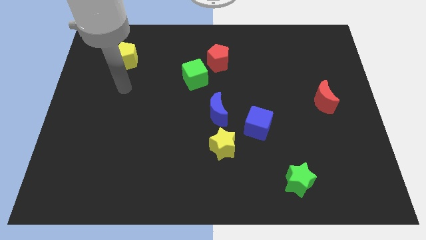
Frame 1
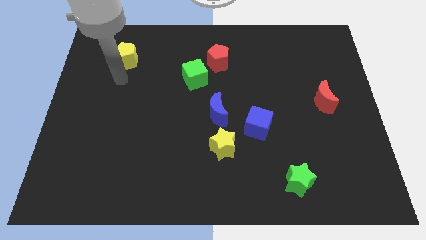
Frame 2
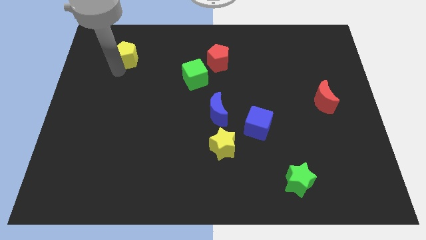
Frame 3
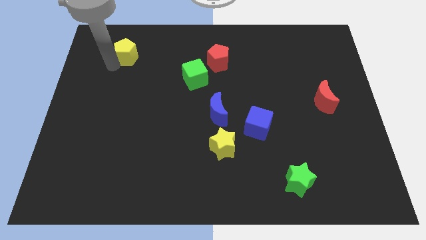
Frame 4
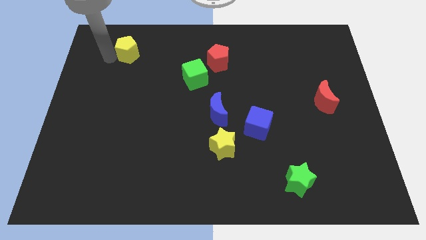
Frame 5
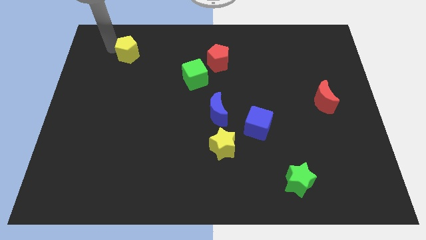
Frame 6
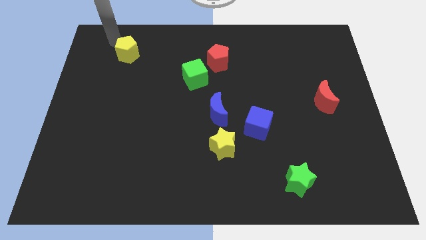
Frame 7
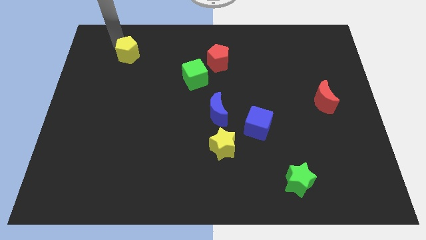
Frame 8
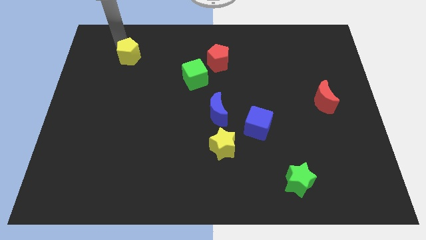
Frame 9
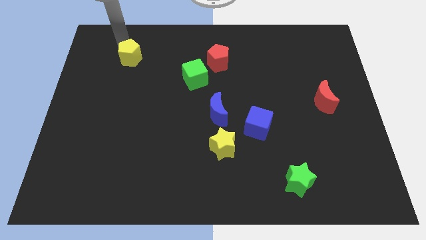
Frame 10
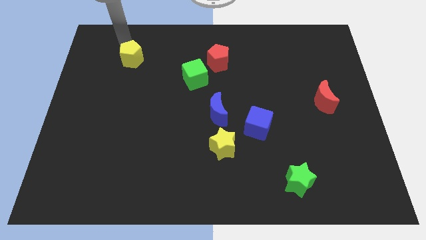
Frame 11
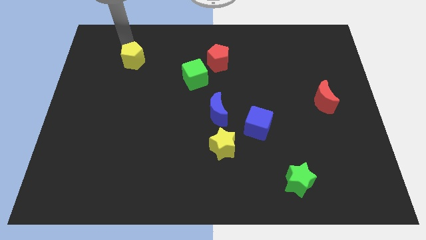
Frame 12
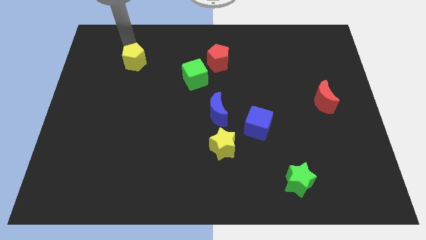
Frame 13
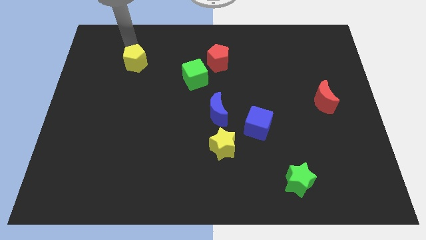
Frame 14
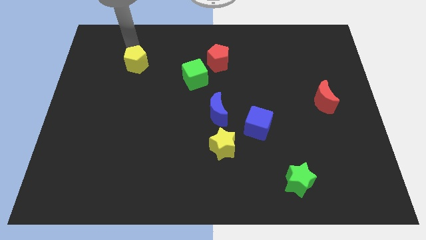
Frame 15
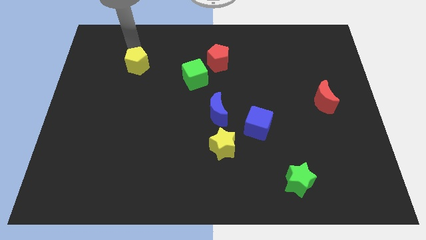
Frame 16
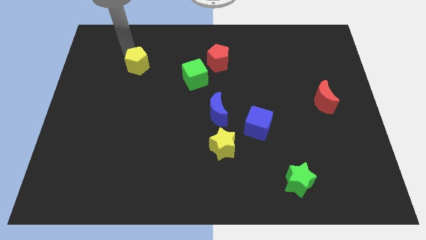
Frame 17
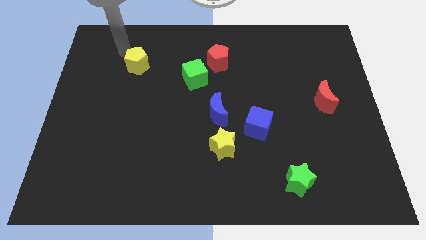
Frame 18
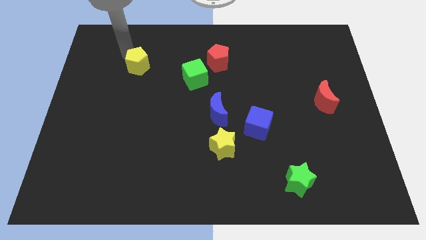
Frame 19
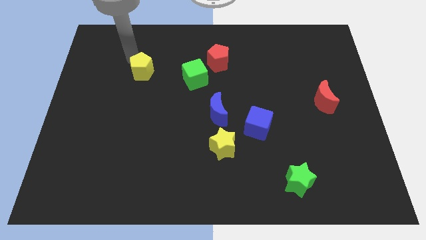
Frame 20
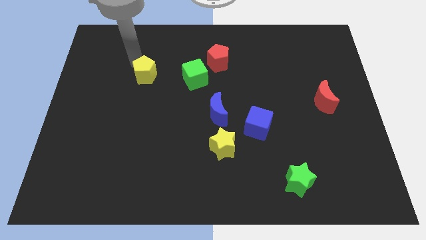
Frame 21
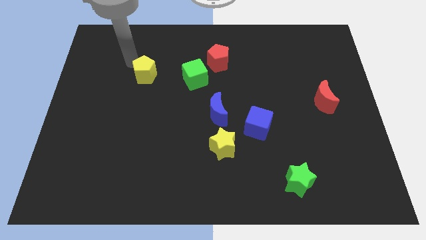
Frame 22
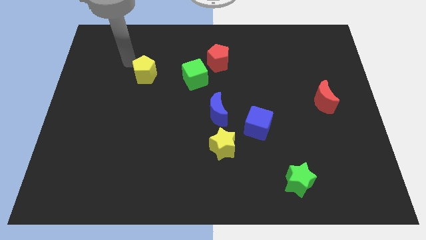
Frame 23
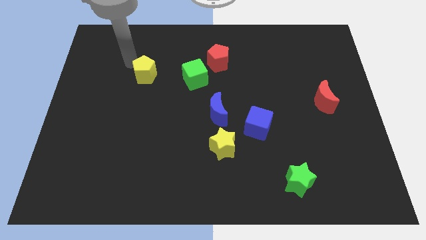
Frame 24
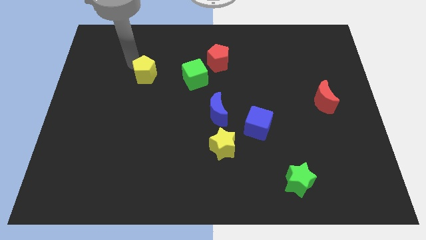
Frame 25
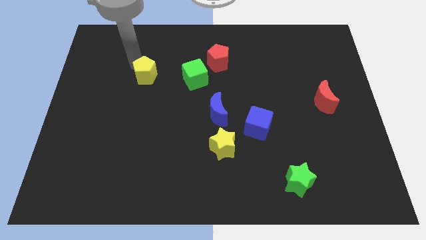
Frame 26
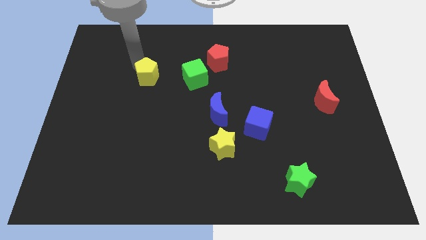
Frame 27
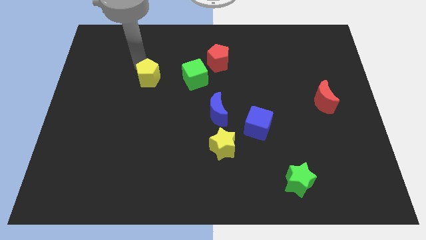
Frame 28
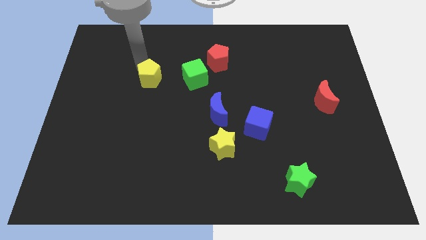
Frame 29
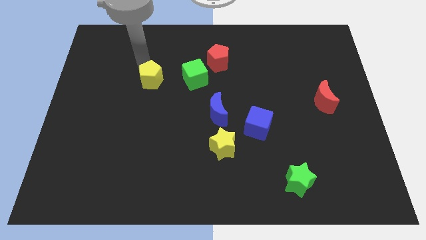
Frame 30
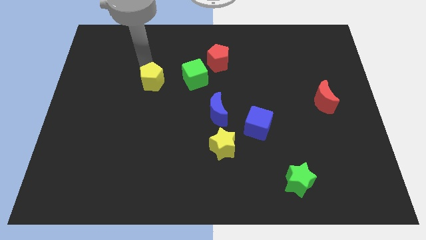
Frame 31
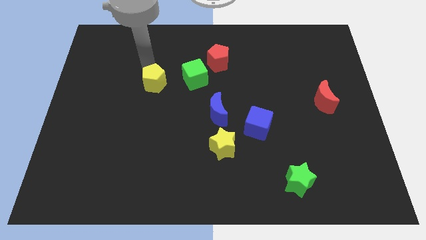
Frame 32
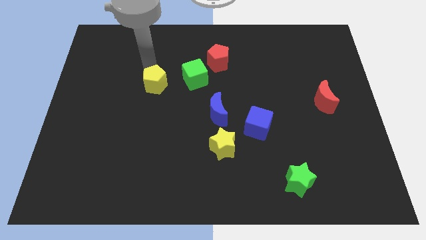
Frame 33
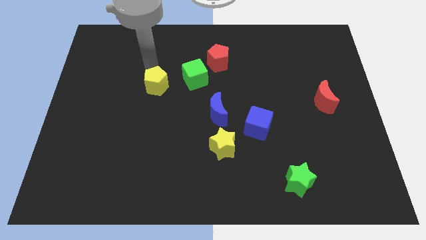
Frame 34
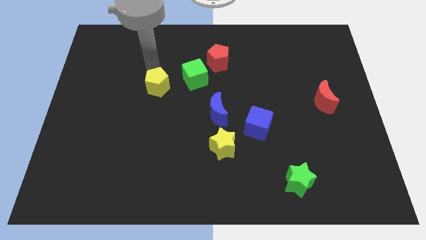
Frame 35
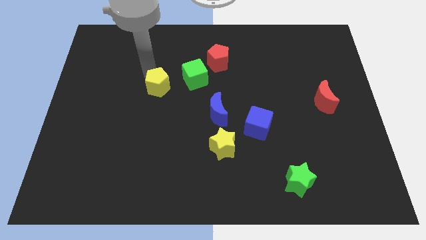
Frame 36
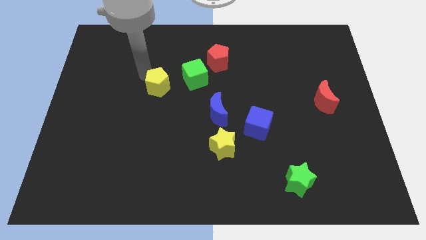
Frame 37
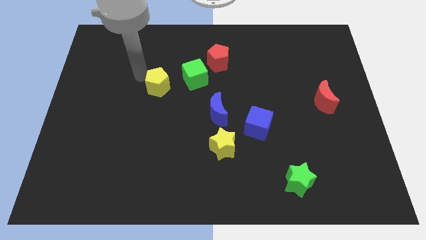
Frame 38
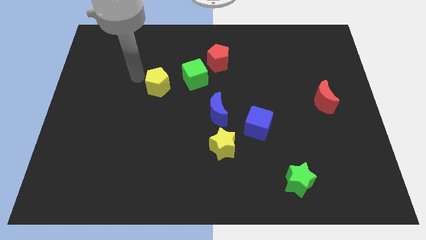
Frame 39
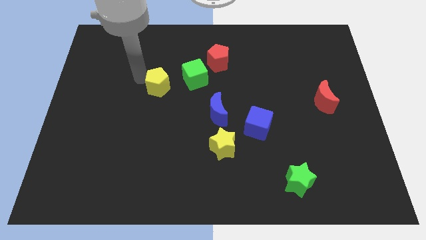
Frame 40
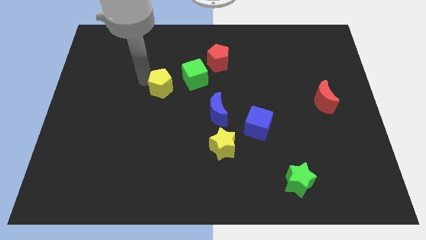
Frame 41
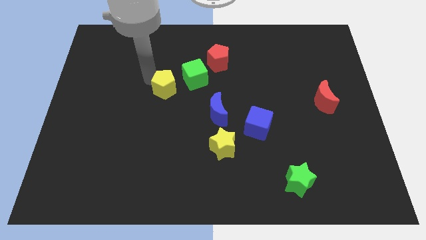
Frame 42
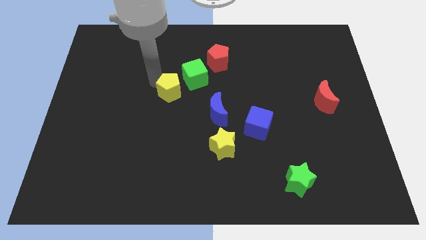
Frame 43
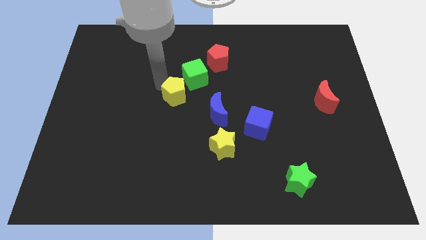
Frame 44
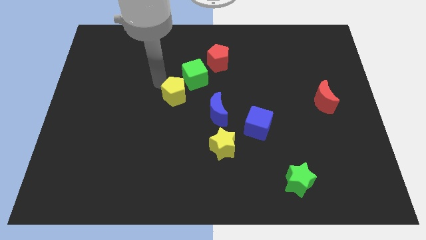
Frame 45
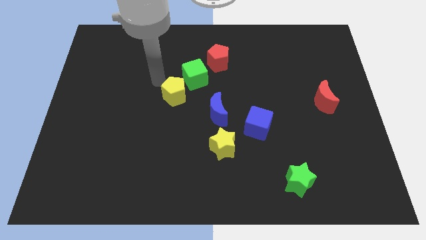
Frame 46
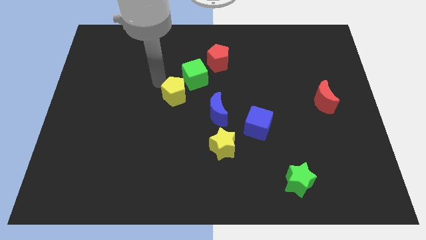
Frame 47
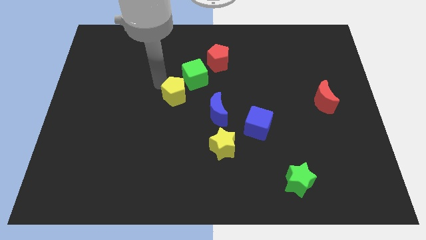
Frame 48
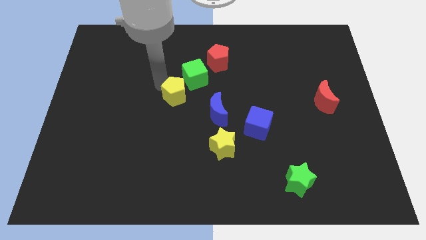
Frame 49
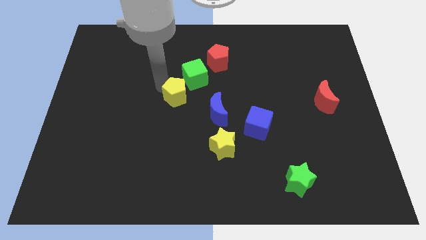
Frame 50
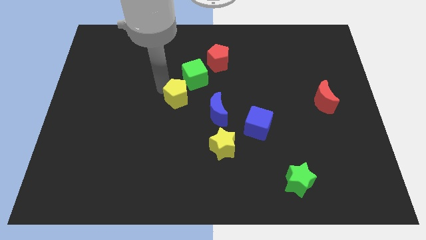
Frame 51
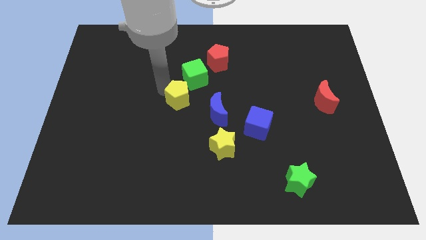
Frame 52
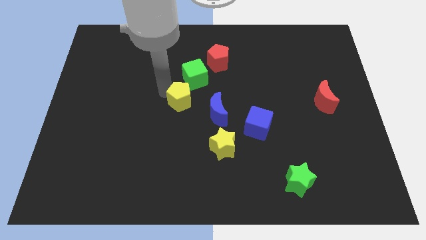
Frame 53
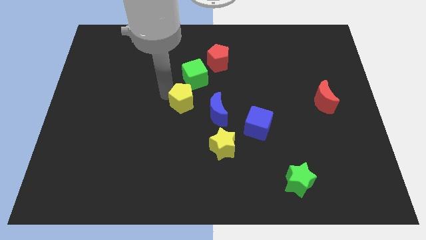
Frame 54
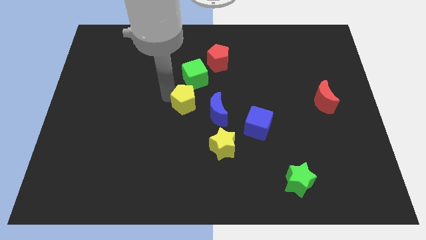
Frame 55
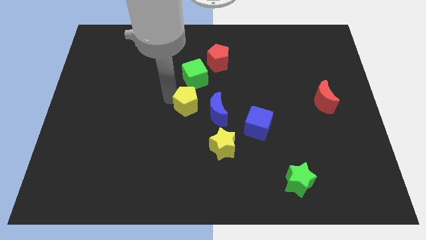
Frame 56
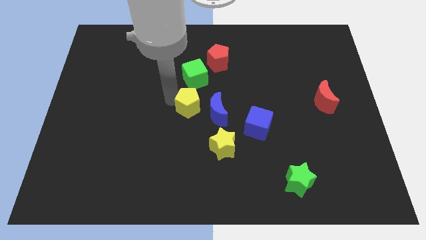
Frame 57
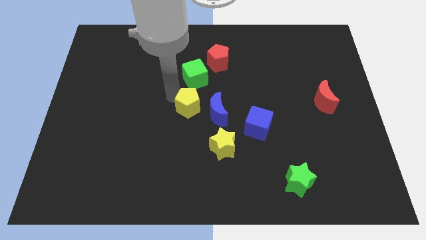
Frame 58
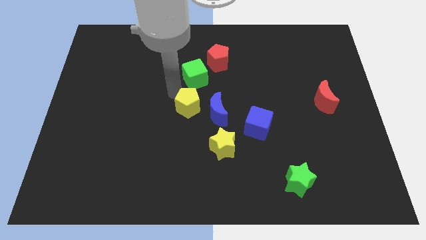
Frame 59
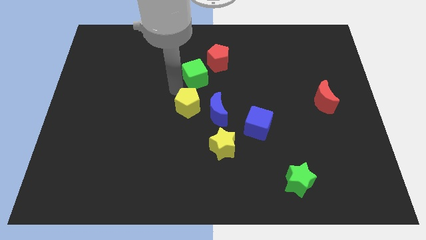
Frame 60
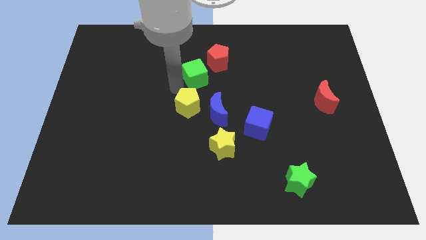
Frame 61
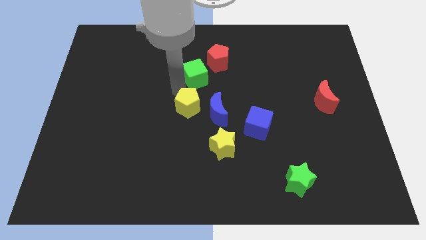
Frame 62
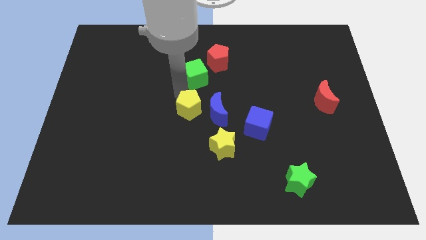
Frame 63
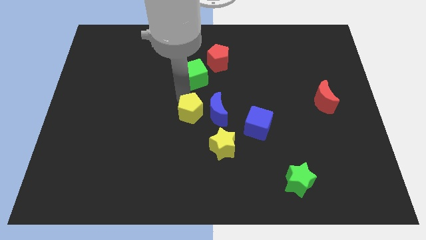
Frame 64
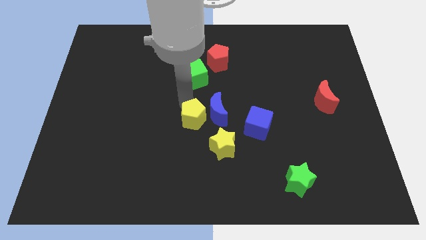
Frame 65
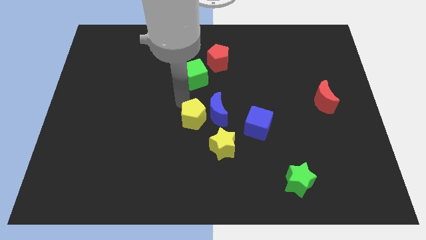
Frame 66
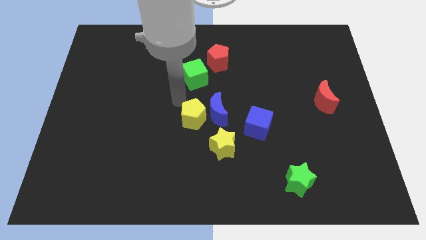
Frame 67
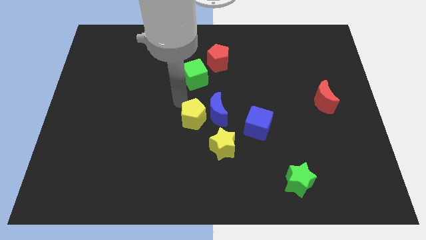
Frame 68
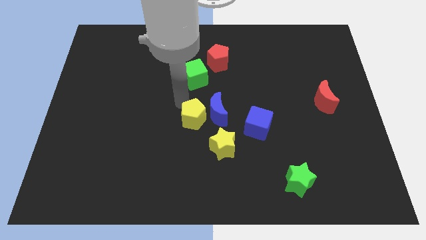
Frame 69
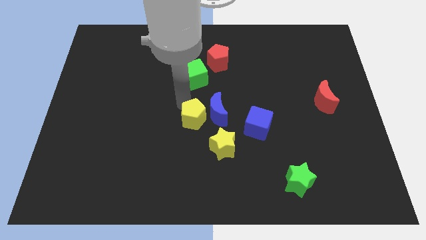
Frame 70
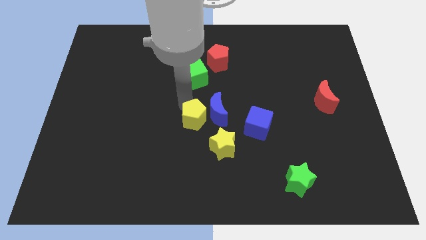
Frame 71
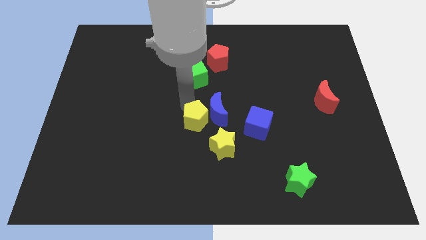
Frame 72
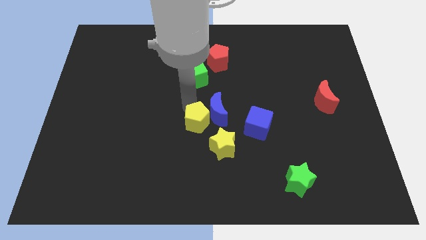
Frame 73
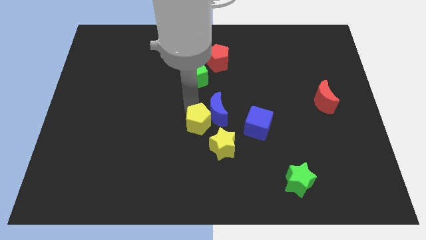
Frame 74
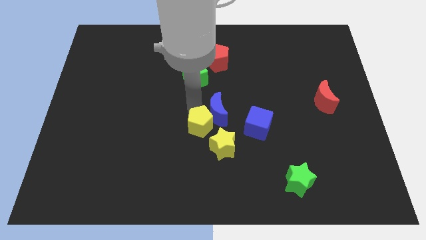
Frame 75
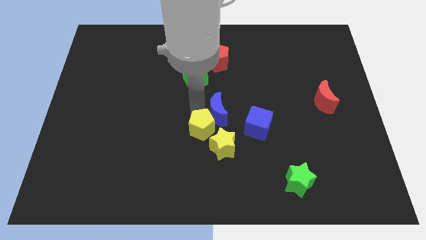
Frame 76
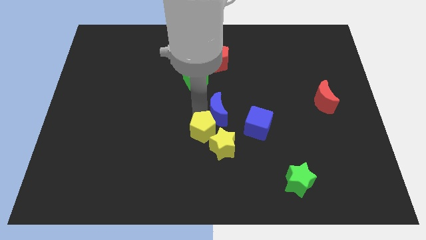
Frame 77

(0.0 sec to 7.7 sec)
slide the yellow pentagon next to the yellow star
